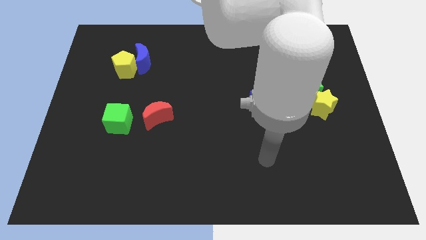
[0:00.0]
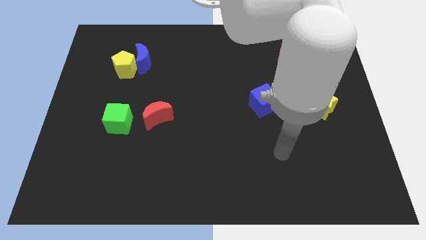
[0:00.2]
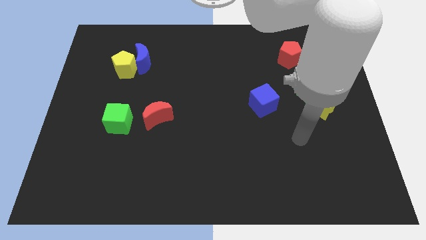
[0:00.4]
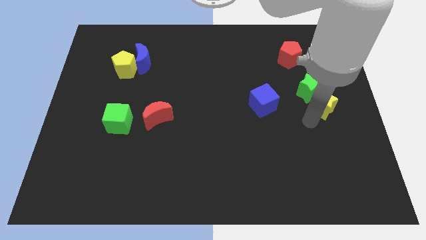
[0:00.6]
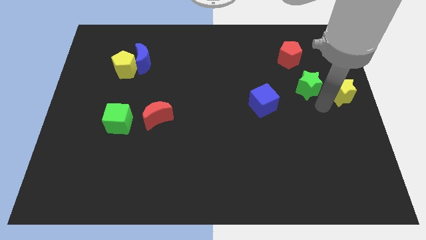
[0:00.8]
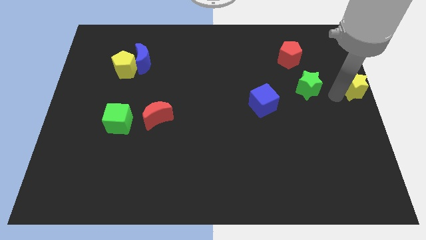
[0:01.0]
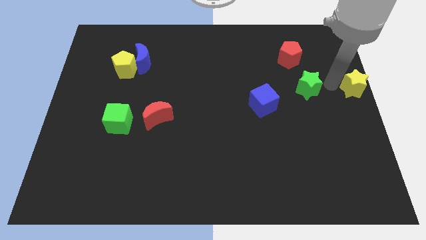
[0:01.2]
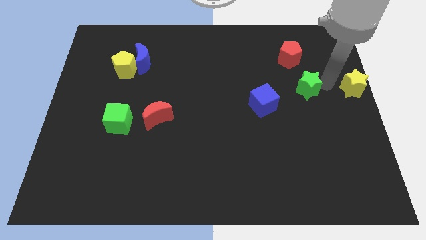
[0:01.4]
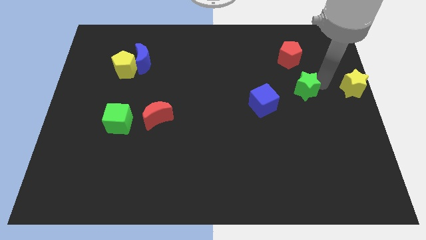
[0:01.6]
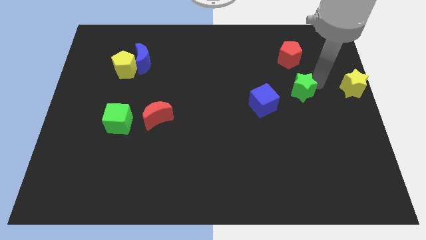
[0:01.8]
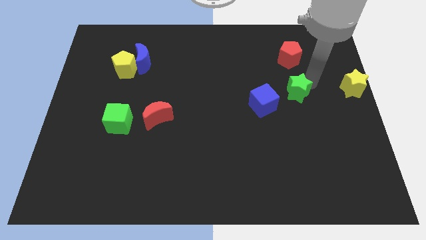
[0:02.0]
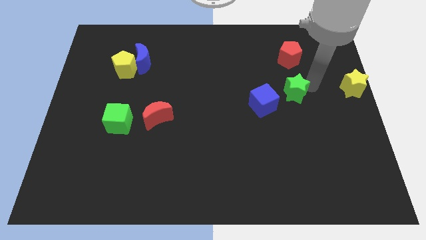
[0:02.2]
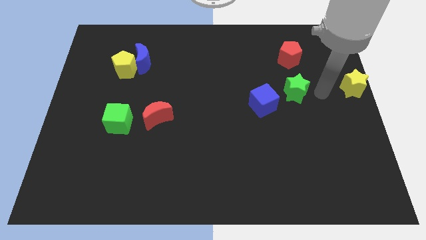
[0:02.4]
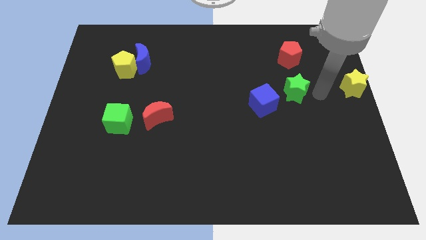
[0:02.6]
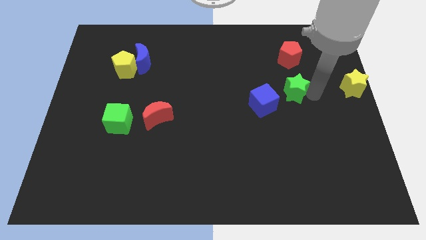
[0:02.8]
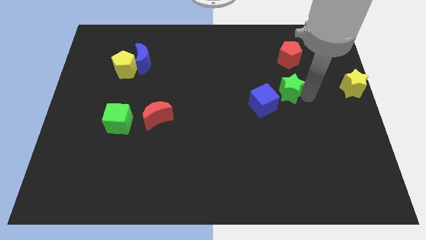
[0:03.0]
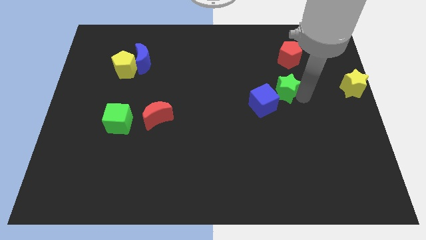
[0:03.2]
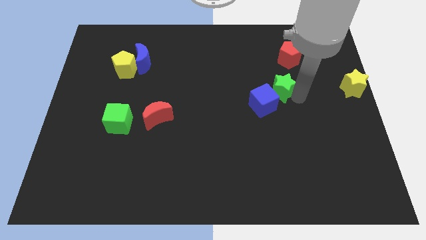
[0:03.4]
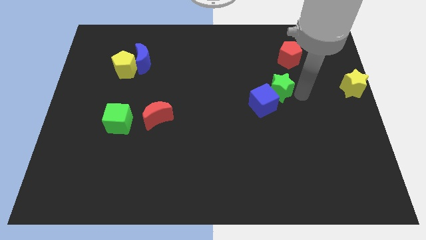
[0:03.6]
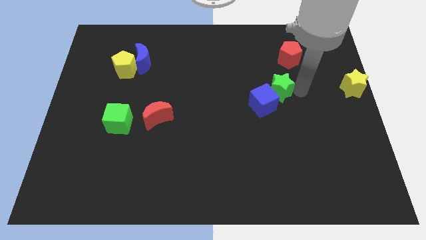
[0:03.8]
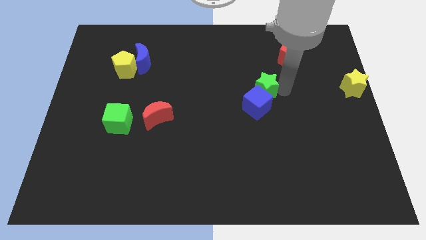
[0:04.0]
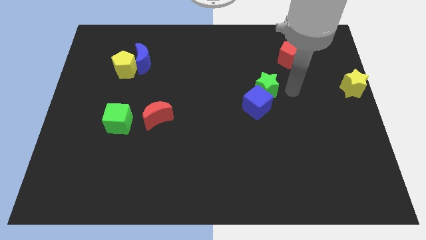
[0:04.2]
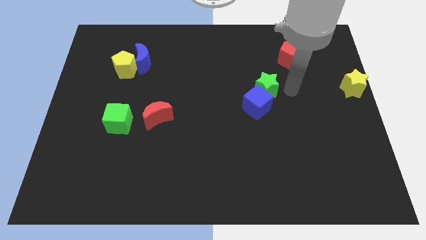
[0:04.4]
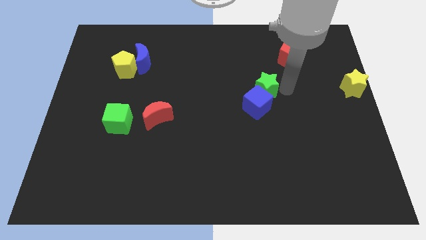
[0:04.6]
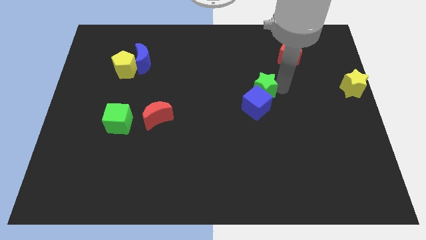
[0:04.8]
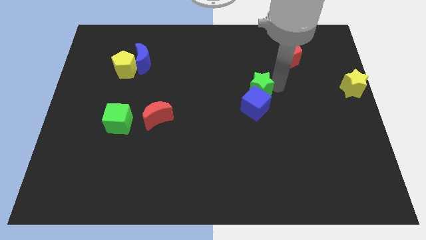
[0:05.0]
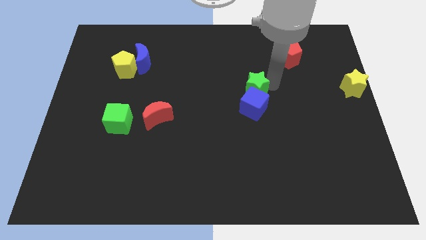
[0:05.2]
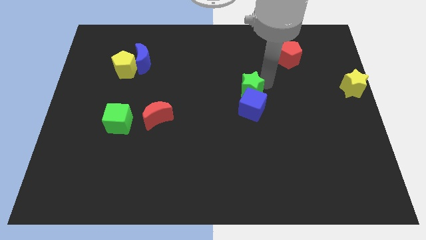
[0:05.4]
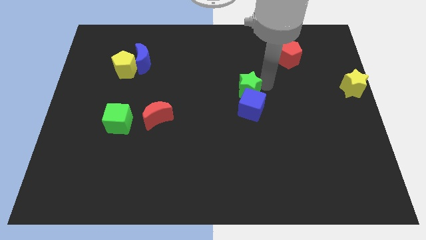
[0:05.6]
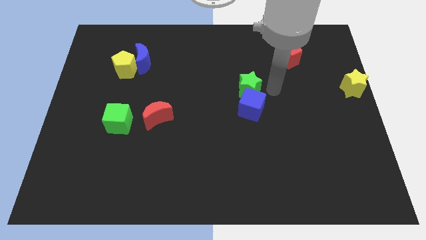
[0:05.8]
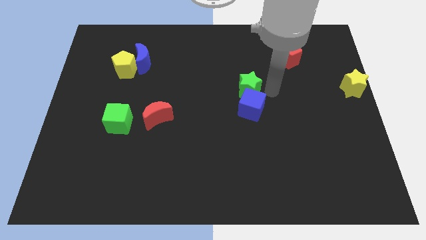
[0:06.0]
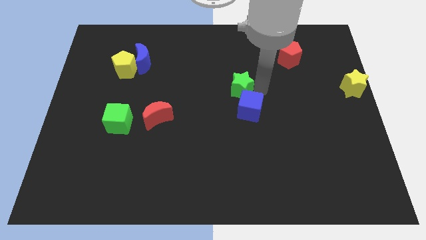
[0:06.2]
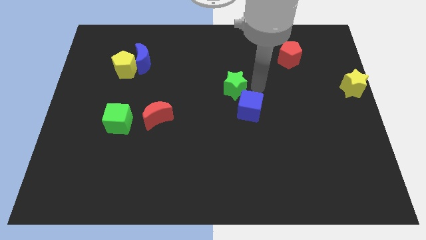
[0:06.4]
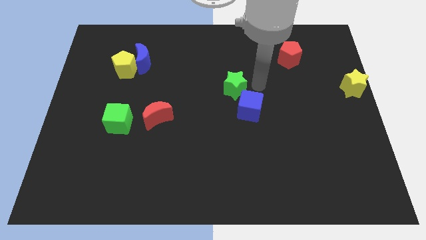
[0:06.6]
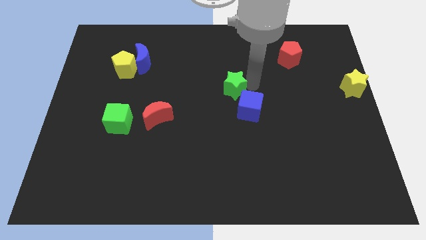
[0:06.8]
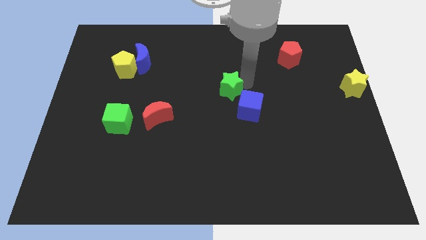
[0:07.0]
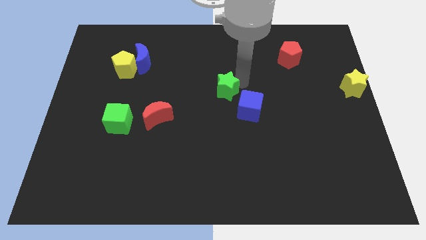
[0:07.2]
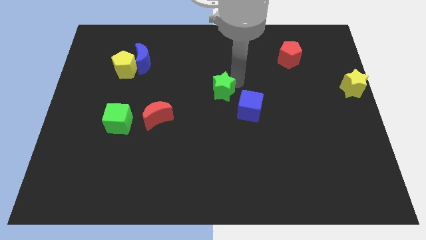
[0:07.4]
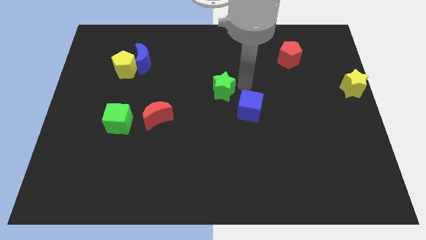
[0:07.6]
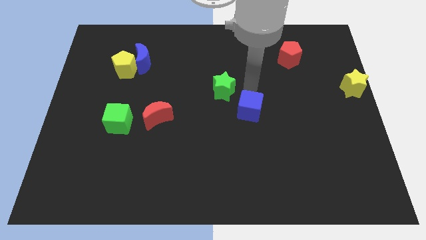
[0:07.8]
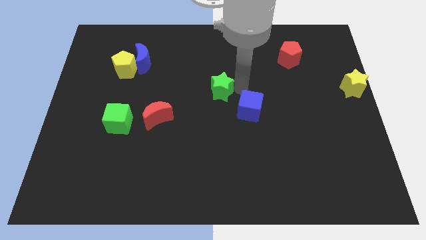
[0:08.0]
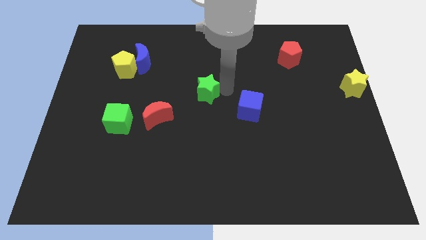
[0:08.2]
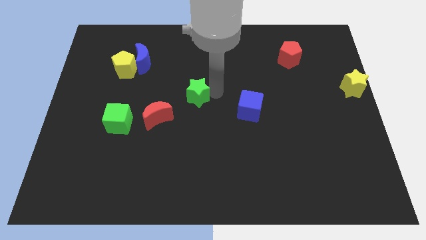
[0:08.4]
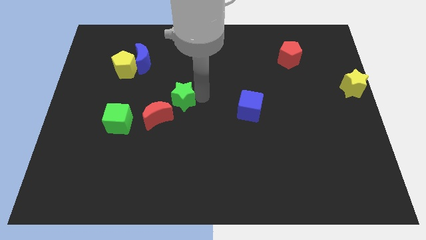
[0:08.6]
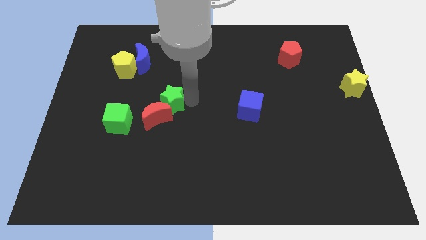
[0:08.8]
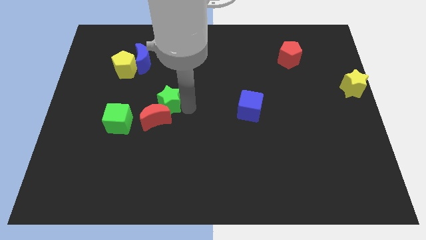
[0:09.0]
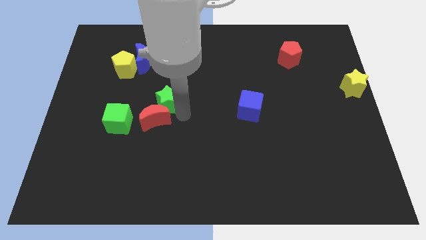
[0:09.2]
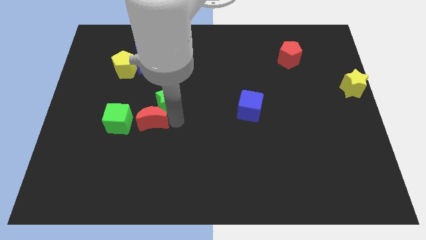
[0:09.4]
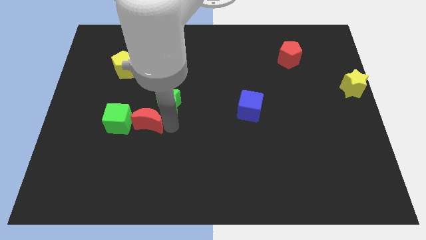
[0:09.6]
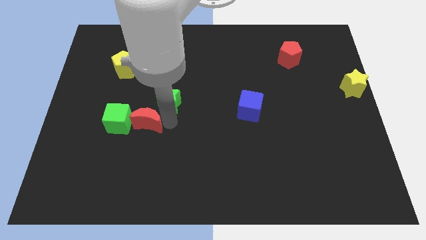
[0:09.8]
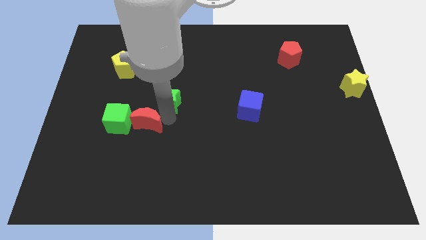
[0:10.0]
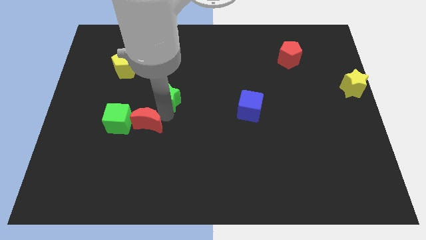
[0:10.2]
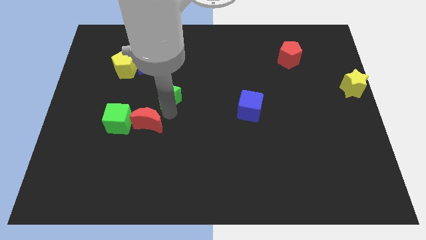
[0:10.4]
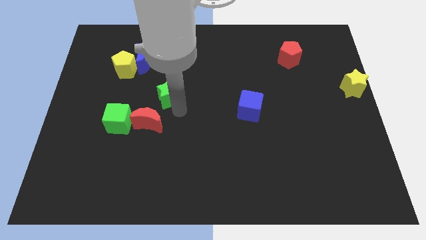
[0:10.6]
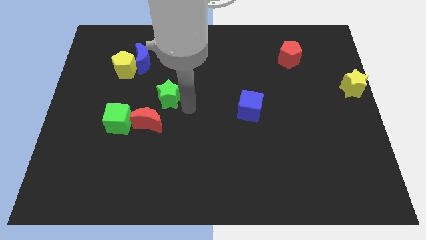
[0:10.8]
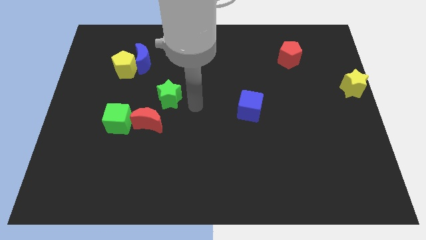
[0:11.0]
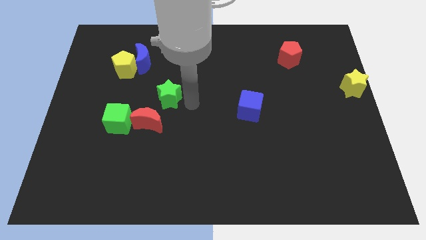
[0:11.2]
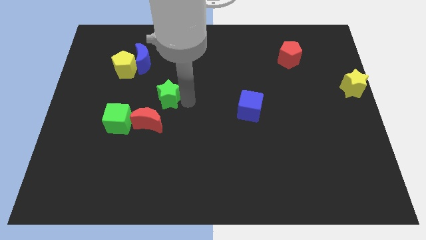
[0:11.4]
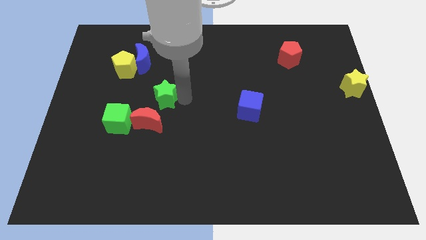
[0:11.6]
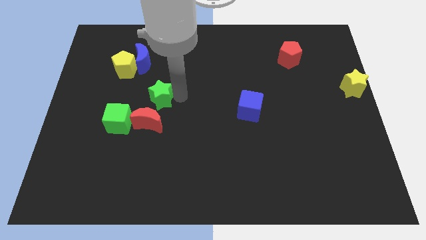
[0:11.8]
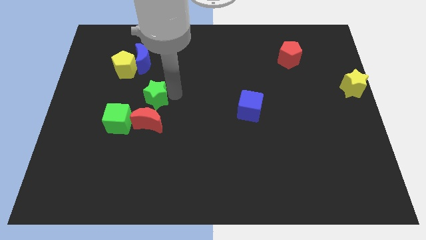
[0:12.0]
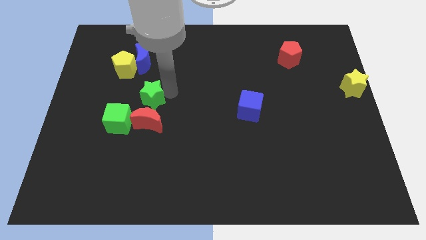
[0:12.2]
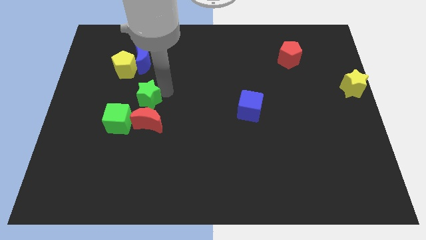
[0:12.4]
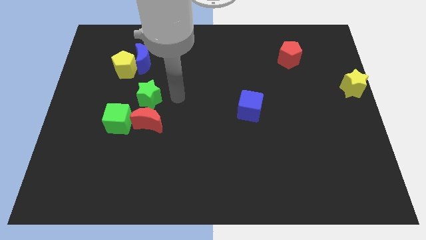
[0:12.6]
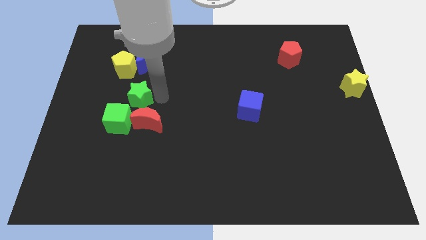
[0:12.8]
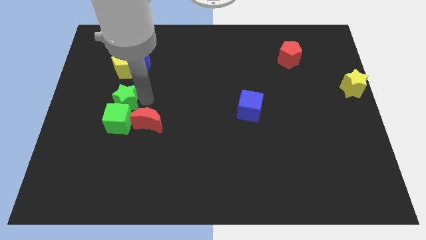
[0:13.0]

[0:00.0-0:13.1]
put the green star to the top left side of the green cube

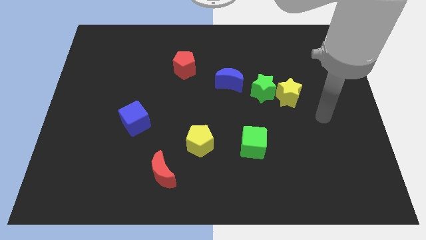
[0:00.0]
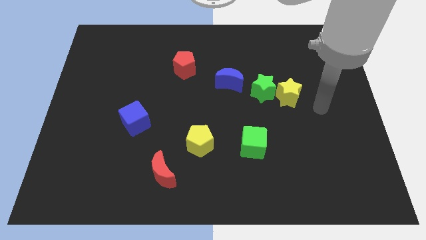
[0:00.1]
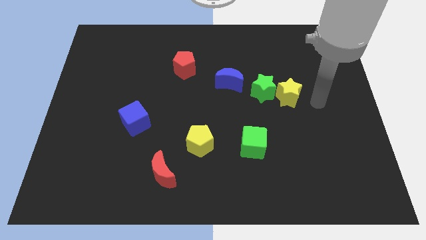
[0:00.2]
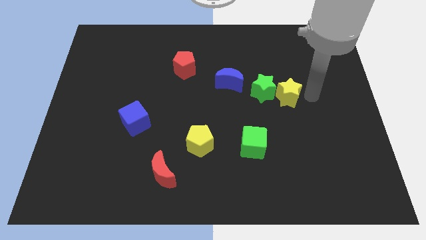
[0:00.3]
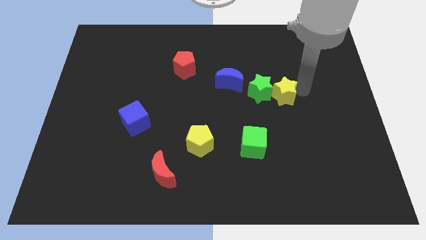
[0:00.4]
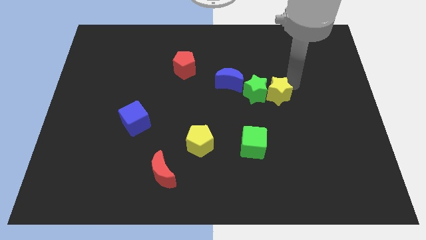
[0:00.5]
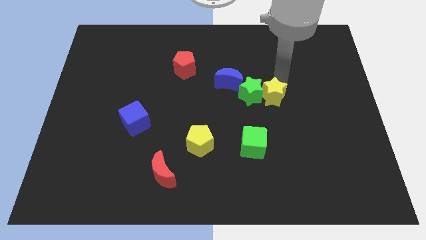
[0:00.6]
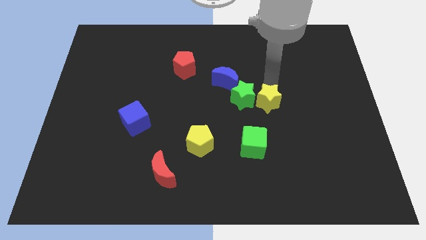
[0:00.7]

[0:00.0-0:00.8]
slide the blue moon diagonally down and to the right of the red pentagon
